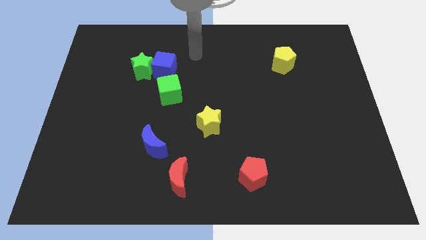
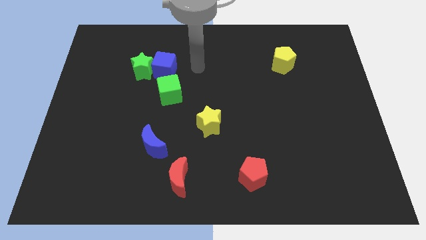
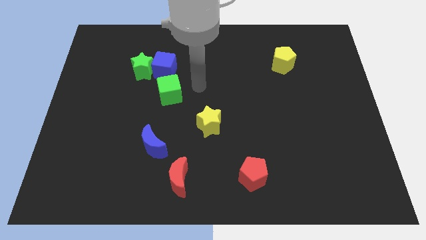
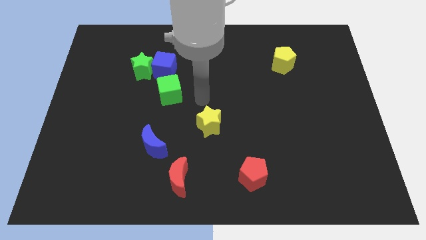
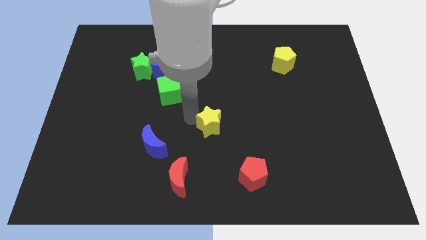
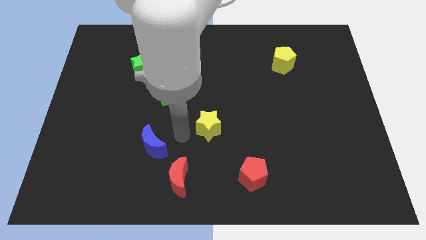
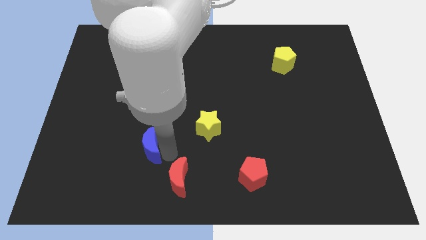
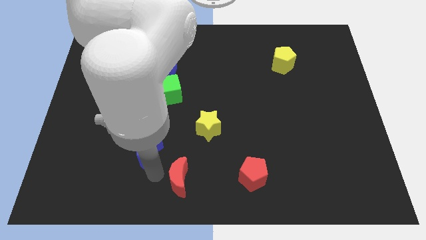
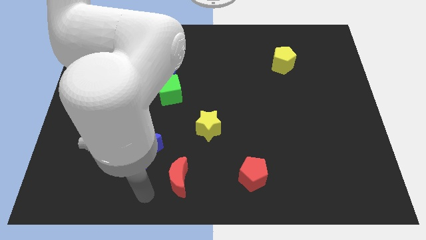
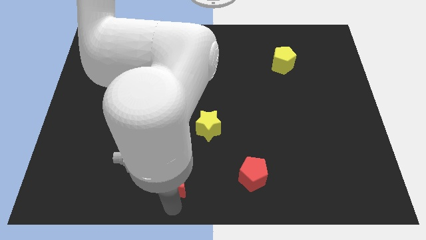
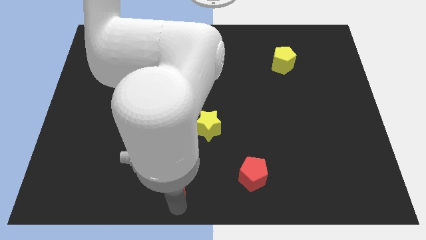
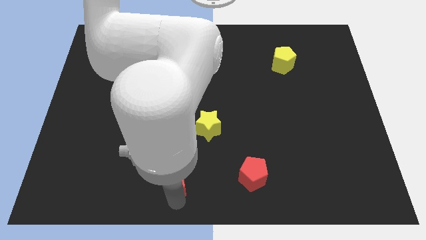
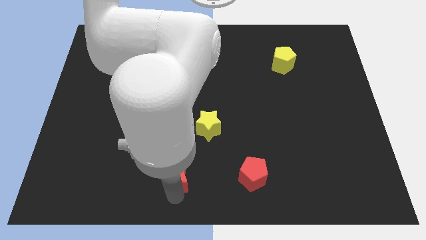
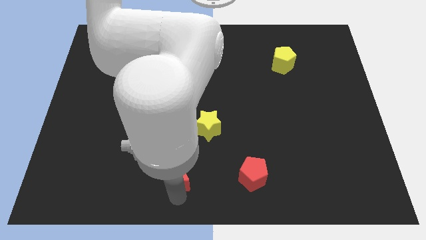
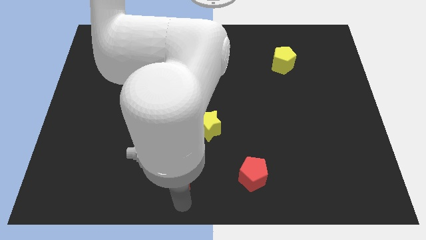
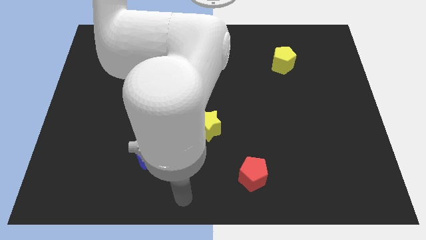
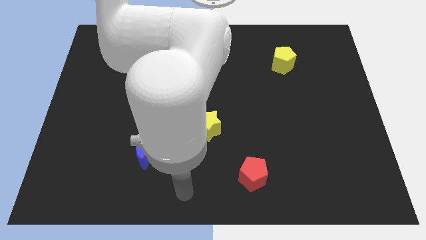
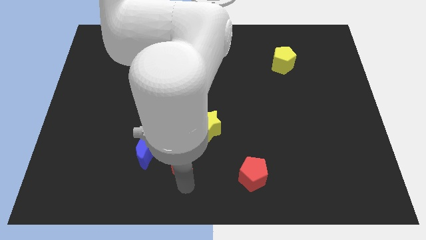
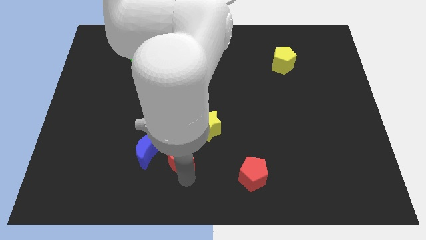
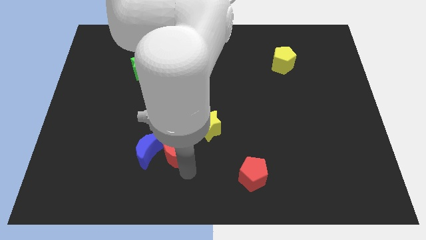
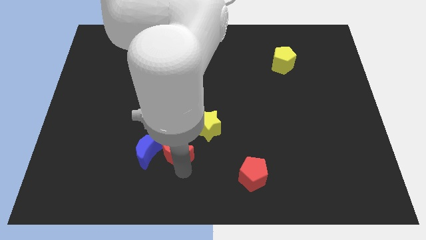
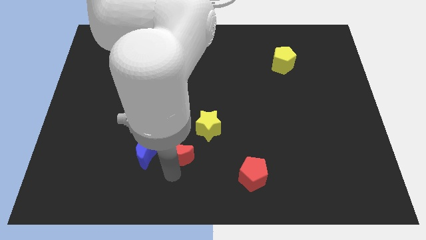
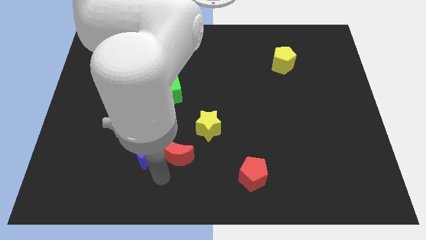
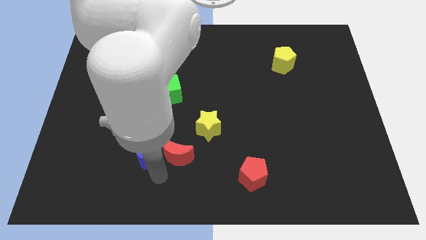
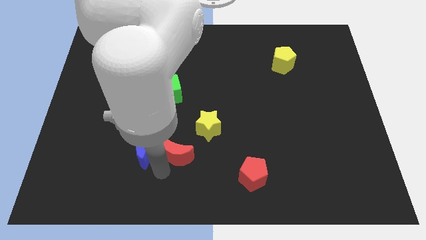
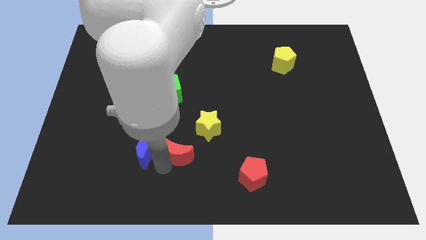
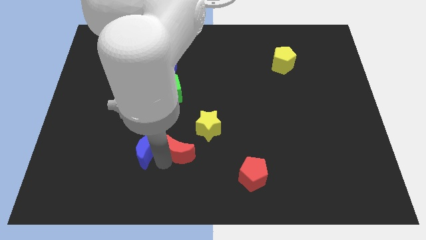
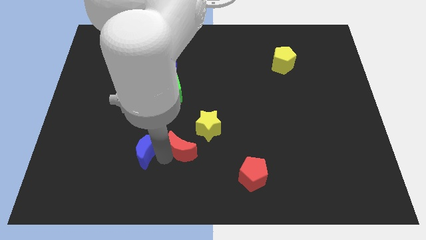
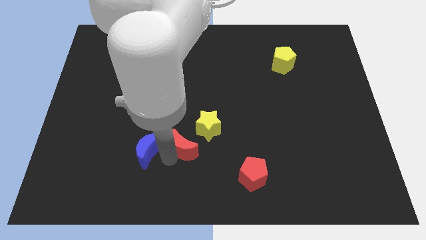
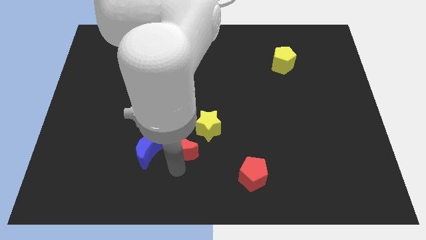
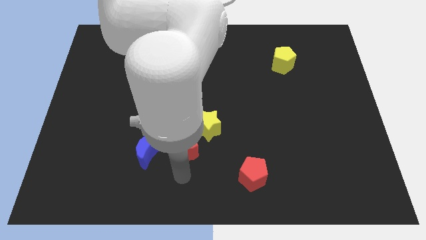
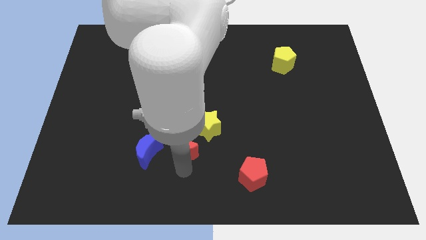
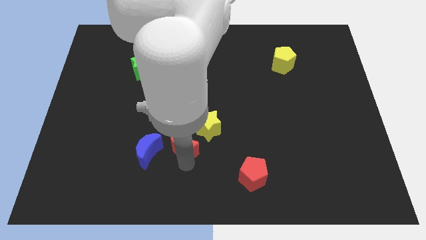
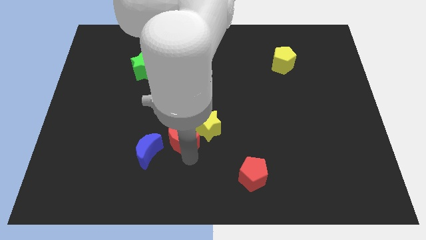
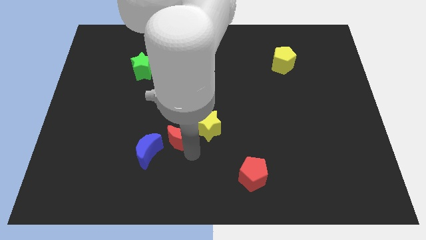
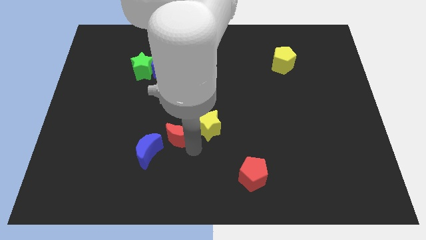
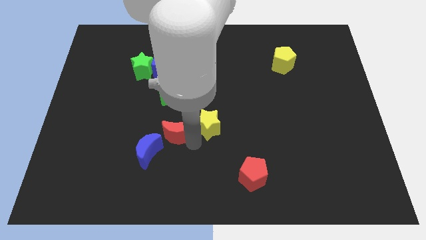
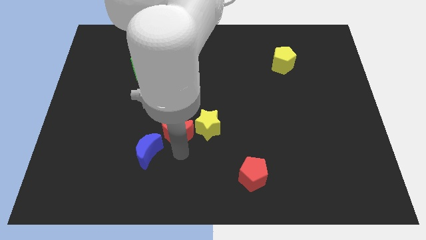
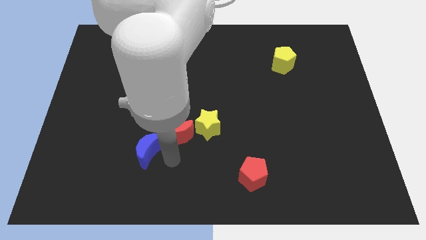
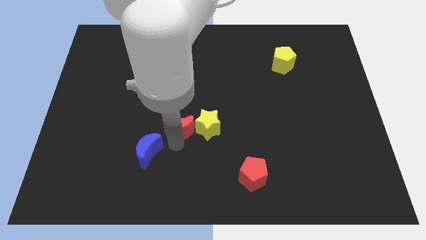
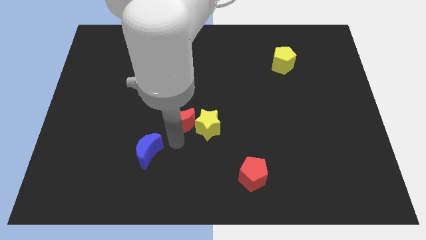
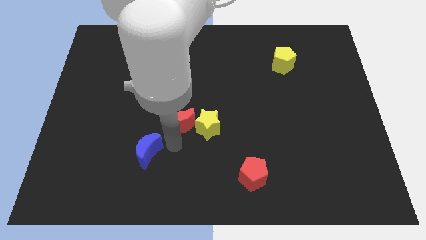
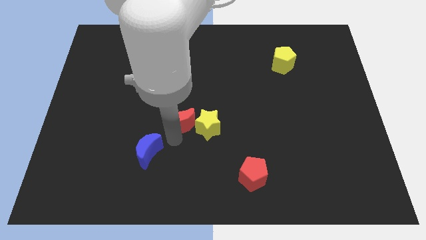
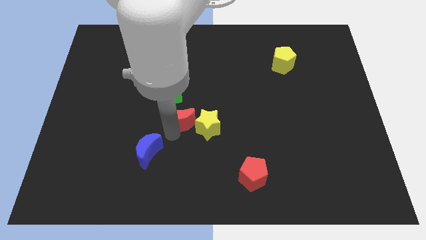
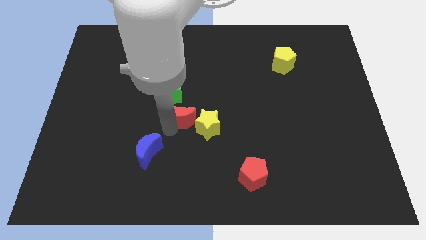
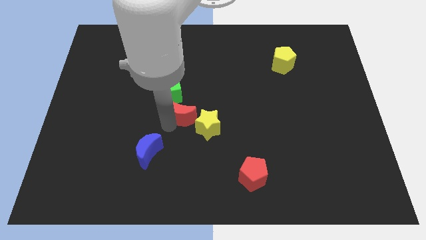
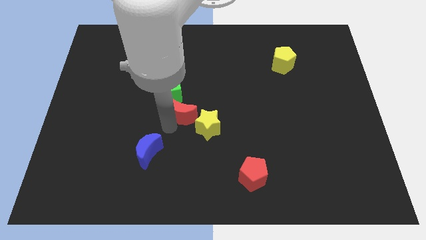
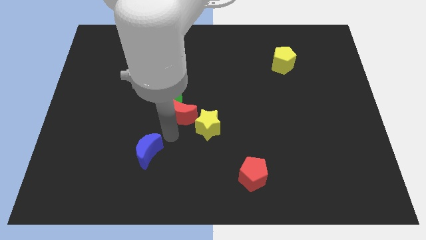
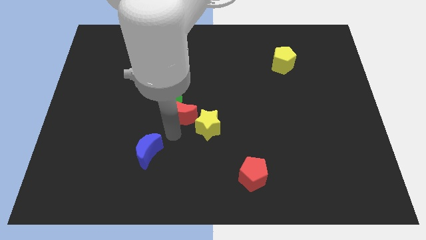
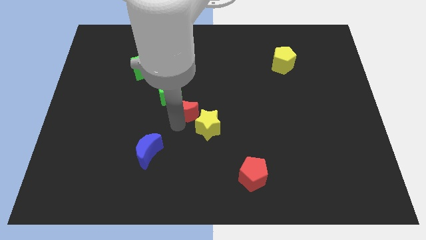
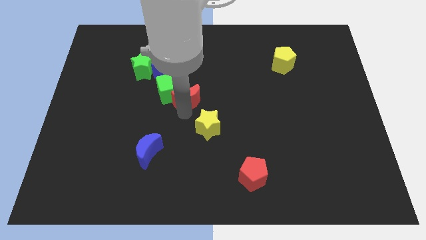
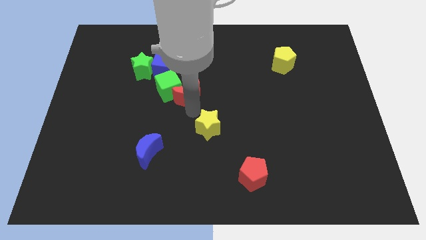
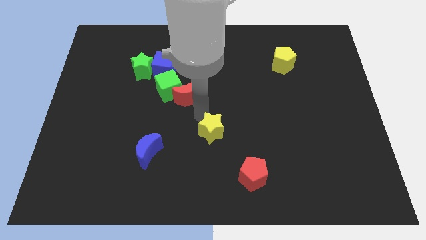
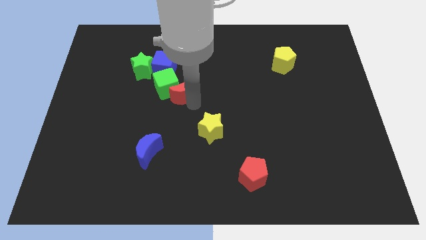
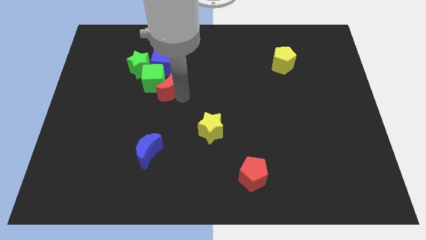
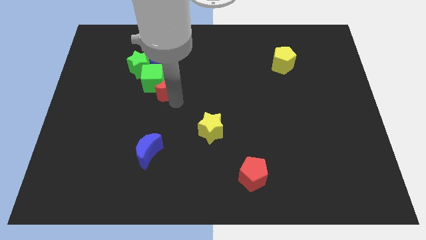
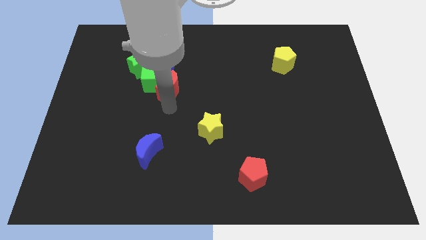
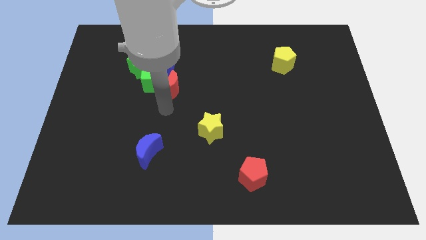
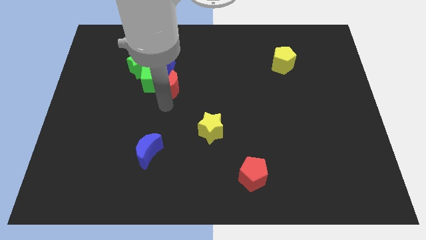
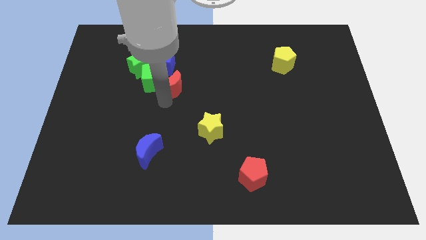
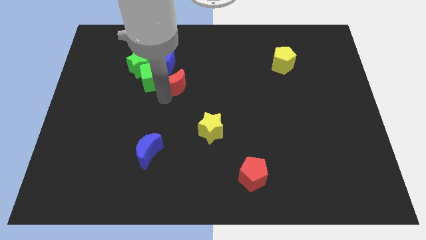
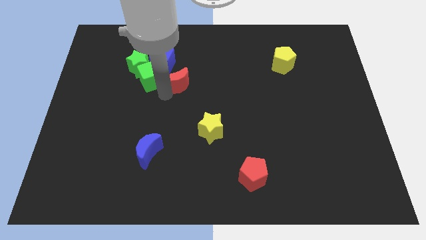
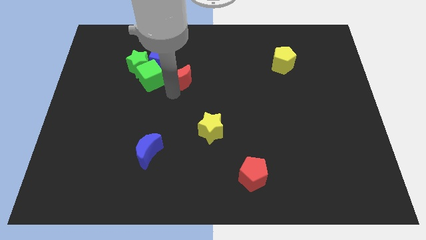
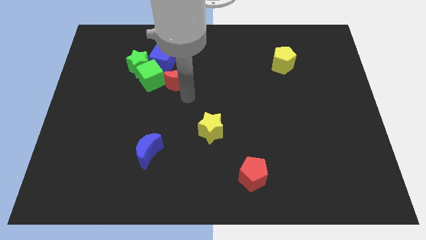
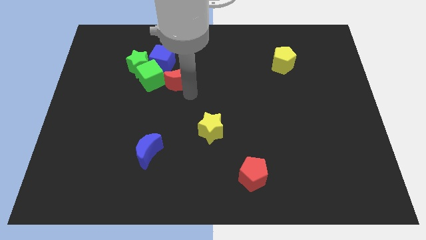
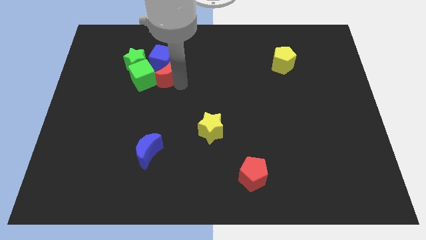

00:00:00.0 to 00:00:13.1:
slide the red moon close to the blue cube

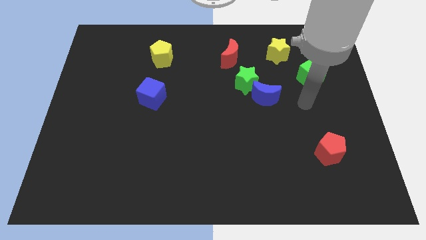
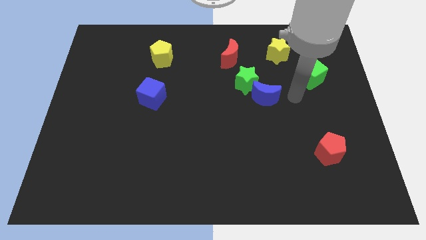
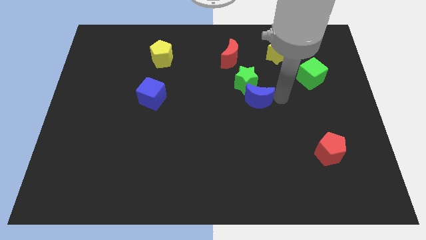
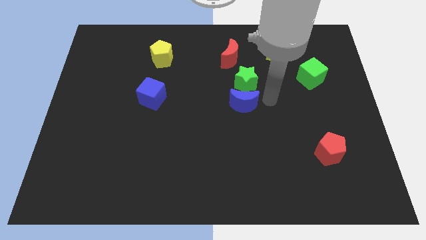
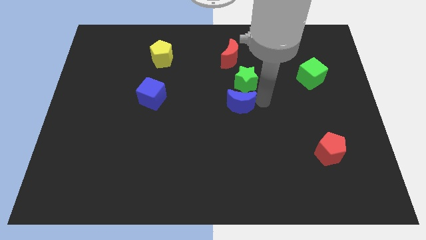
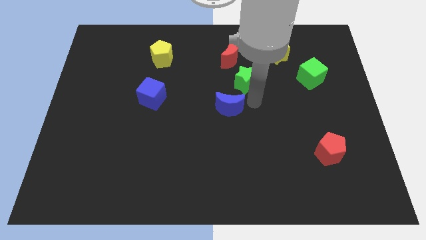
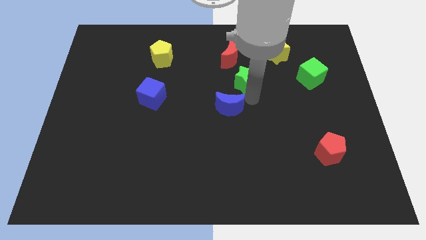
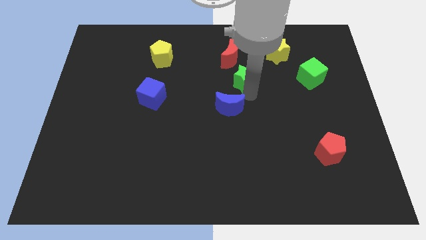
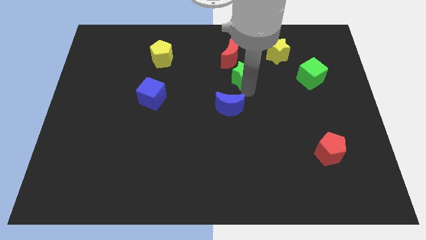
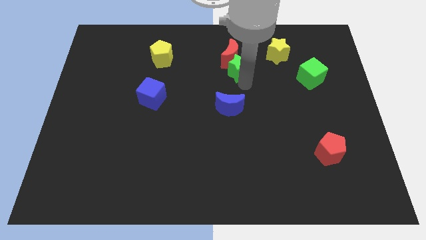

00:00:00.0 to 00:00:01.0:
slide the green star next to the red moon
